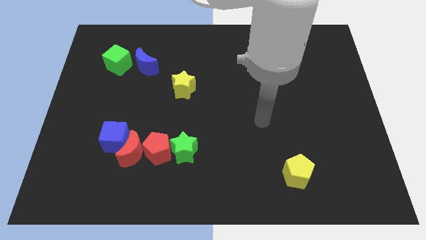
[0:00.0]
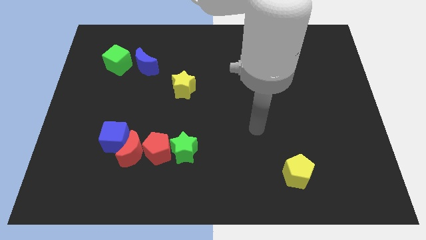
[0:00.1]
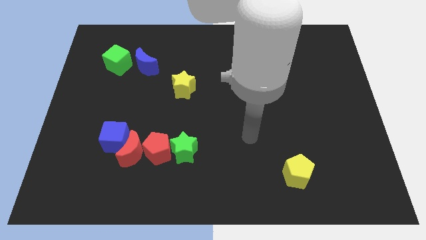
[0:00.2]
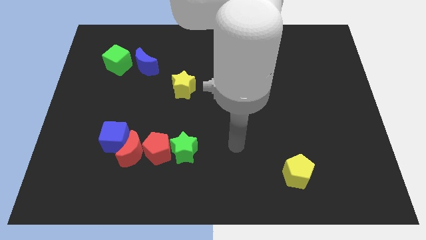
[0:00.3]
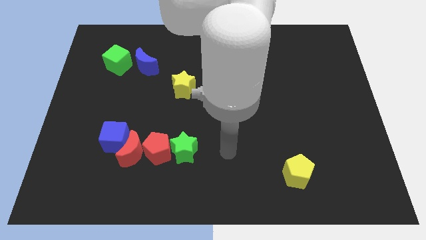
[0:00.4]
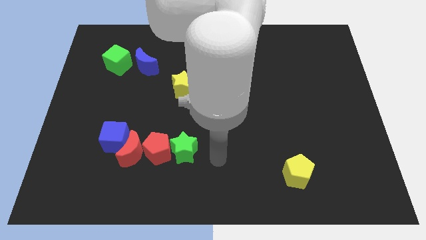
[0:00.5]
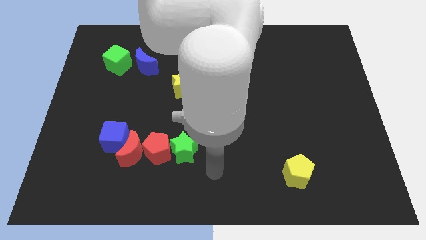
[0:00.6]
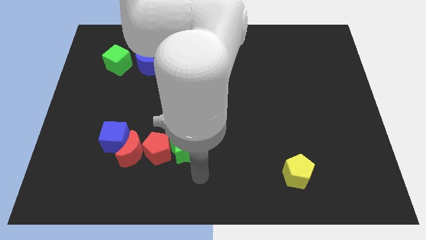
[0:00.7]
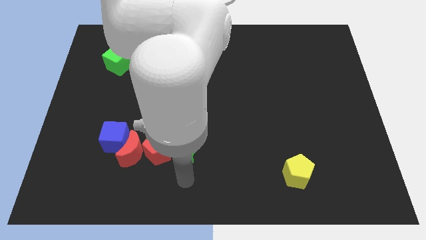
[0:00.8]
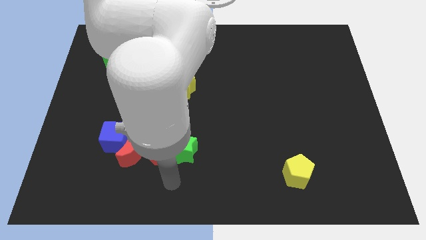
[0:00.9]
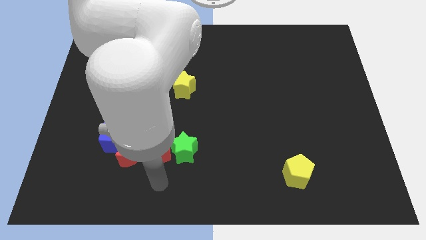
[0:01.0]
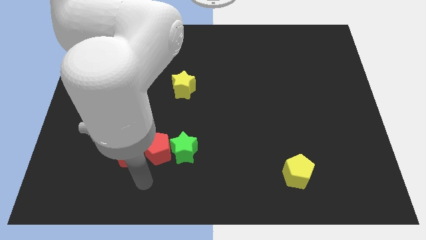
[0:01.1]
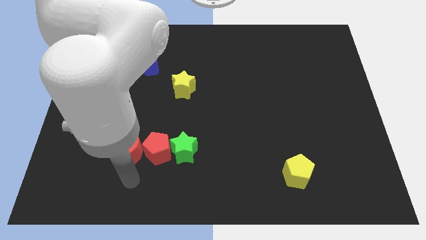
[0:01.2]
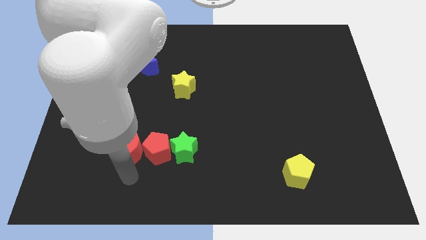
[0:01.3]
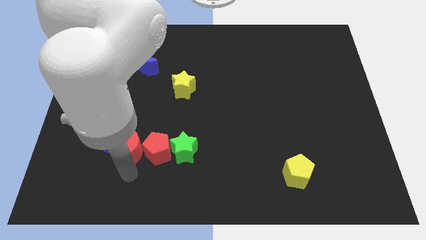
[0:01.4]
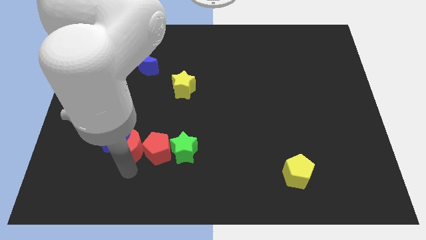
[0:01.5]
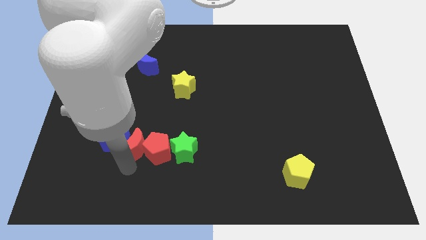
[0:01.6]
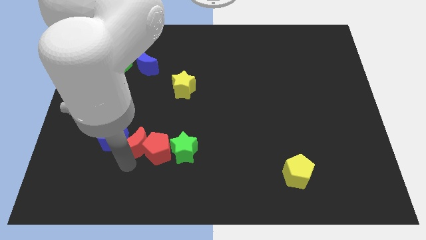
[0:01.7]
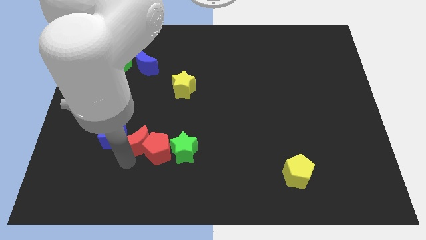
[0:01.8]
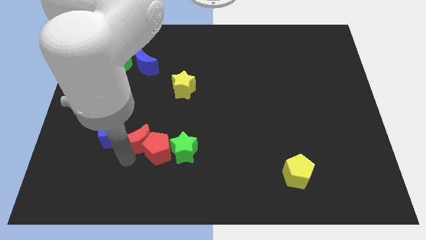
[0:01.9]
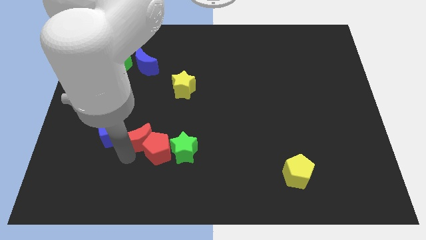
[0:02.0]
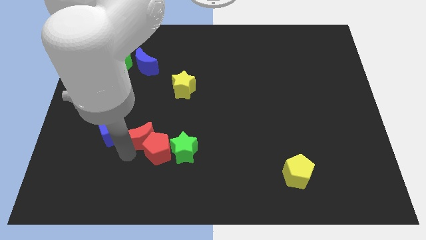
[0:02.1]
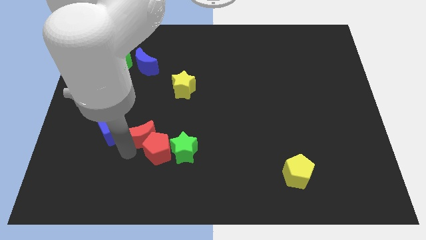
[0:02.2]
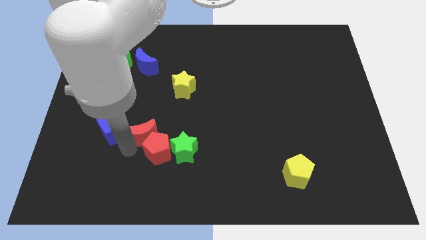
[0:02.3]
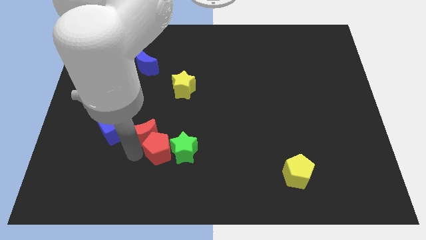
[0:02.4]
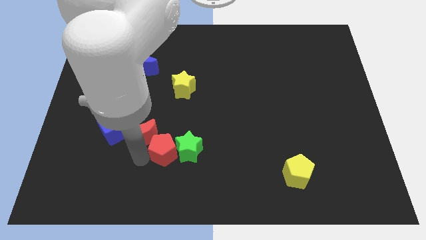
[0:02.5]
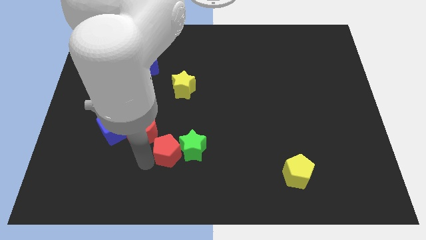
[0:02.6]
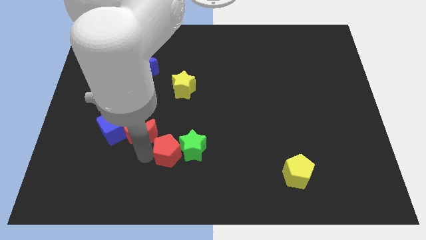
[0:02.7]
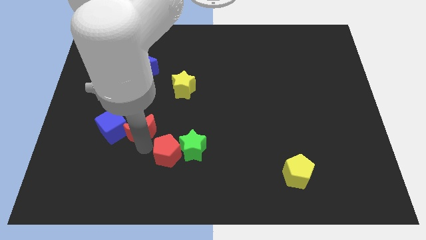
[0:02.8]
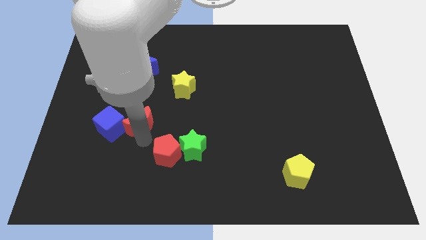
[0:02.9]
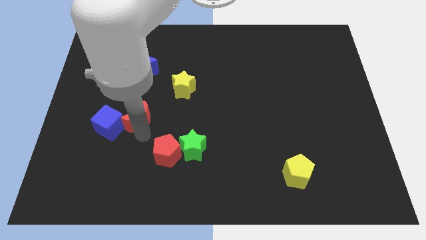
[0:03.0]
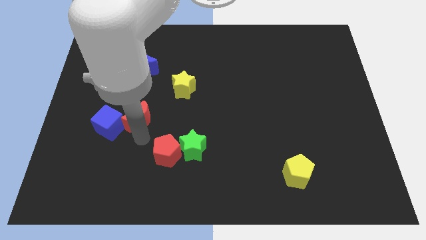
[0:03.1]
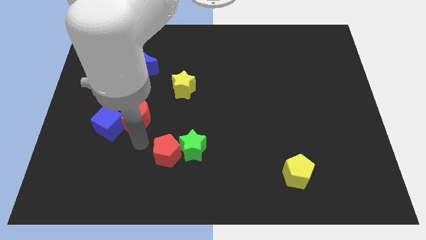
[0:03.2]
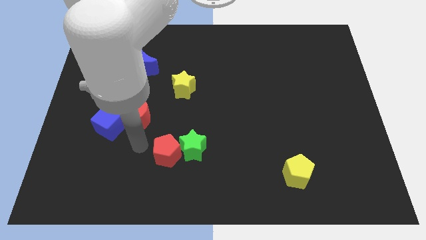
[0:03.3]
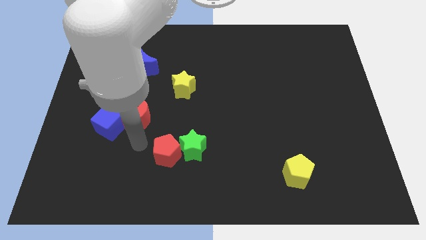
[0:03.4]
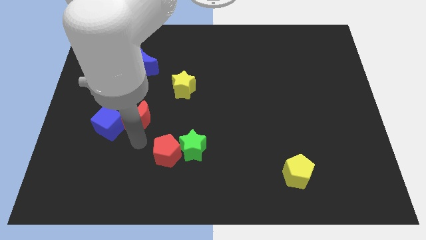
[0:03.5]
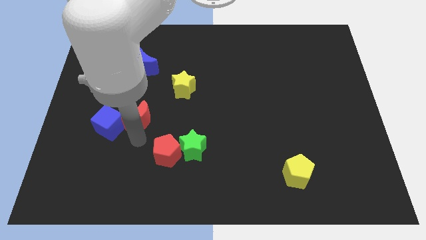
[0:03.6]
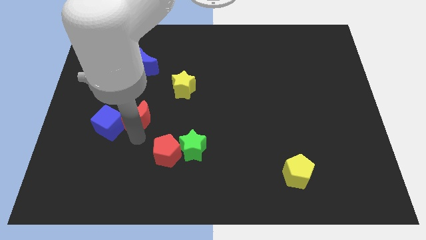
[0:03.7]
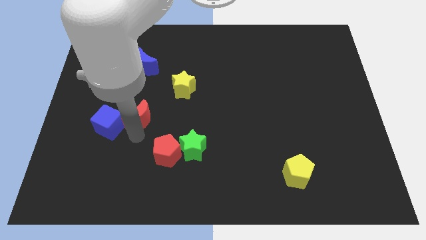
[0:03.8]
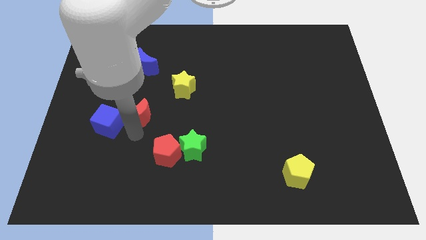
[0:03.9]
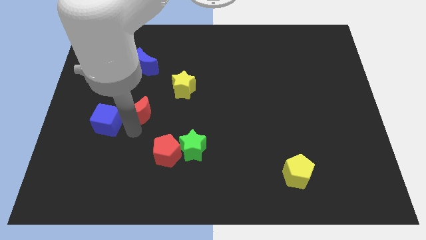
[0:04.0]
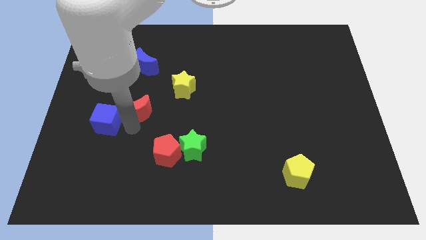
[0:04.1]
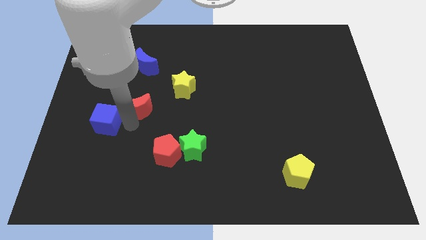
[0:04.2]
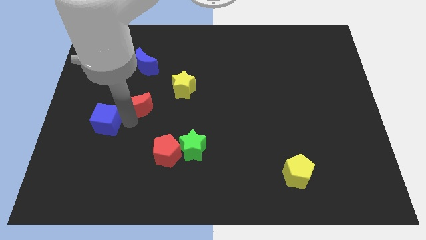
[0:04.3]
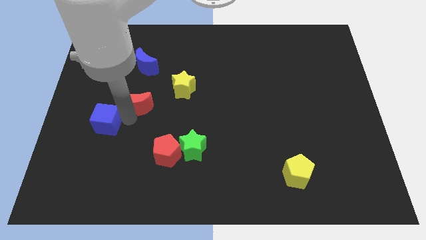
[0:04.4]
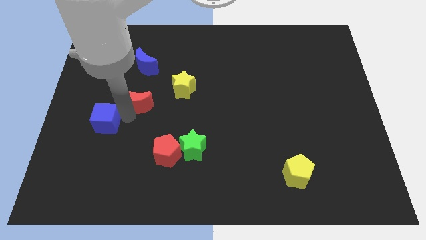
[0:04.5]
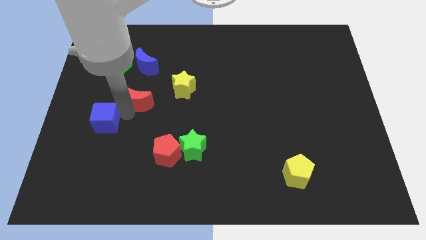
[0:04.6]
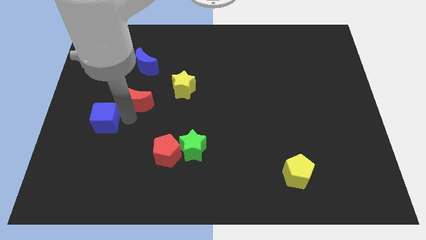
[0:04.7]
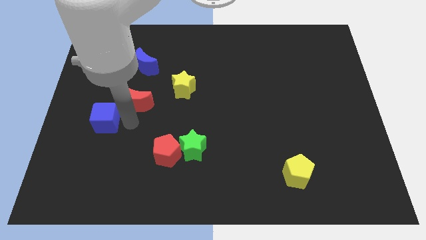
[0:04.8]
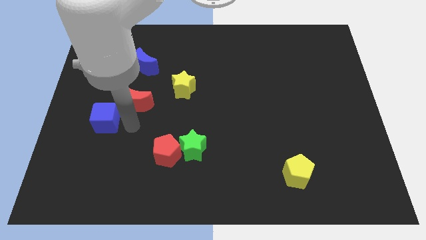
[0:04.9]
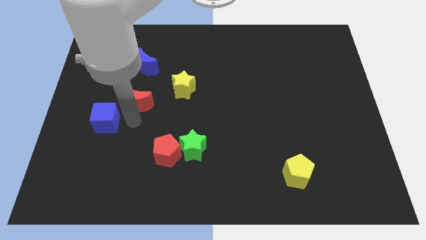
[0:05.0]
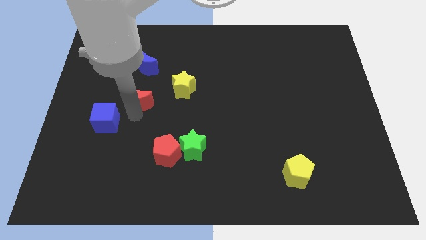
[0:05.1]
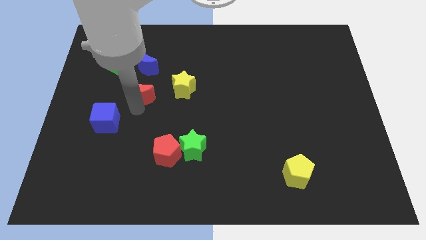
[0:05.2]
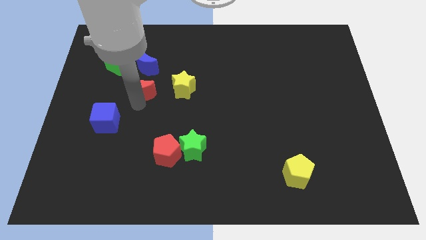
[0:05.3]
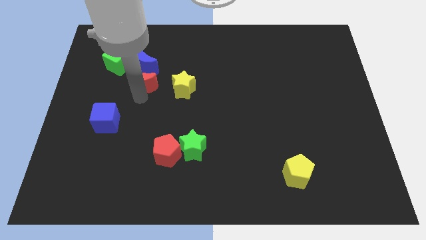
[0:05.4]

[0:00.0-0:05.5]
move the red moon close to the blue moon

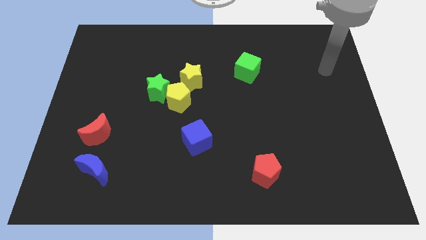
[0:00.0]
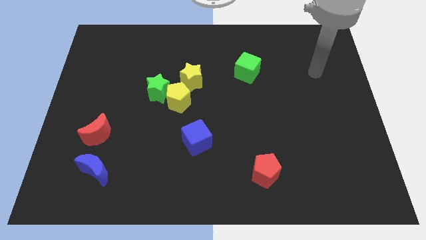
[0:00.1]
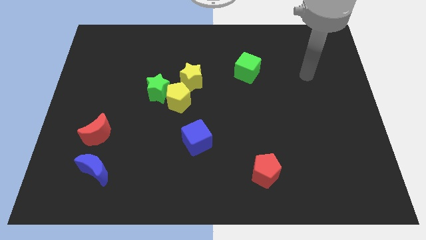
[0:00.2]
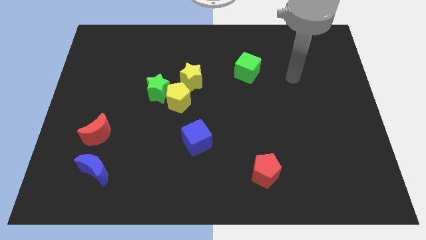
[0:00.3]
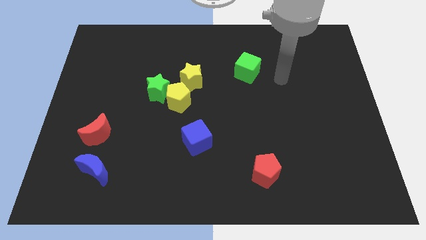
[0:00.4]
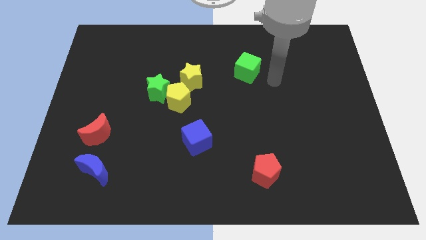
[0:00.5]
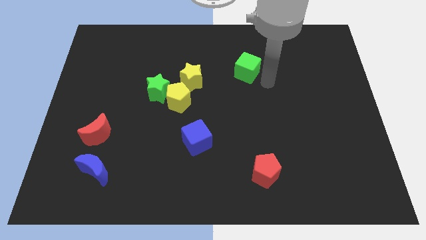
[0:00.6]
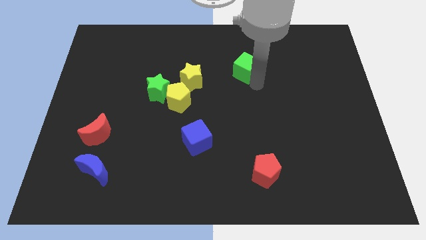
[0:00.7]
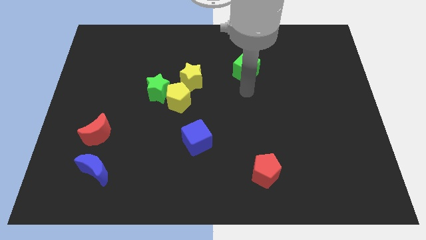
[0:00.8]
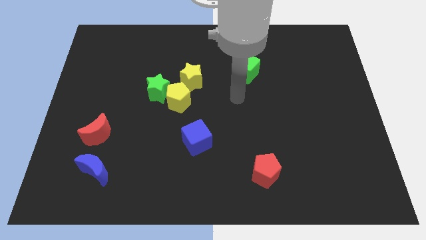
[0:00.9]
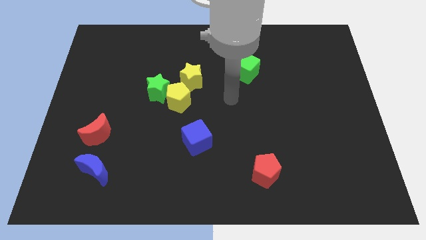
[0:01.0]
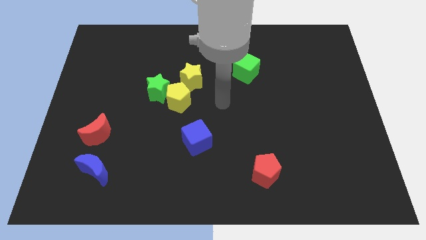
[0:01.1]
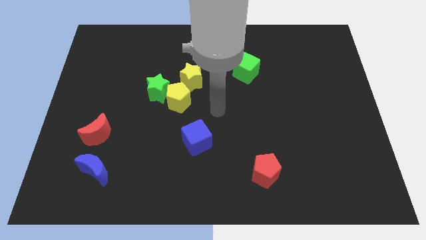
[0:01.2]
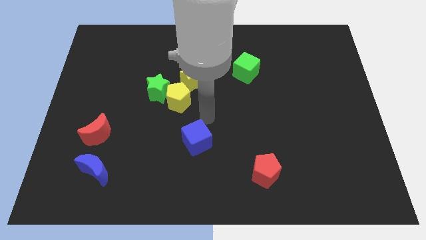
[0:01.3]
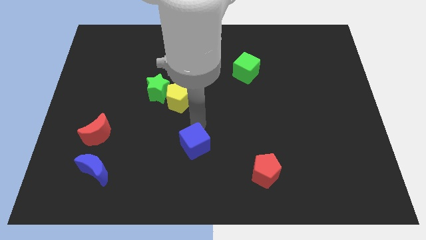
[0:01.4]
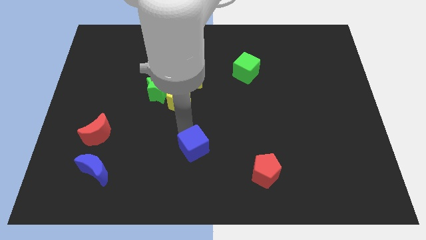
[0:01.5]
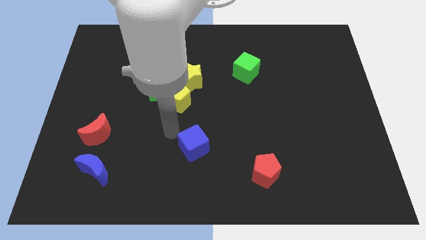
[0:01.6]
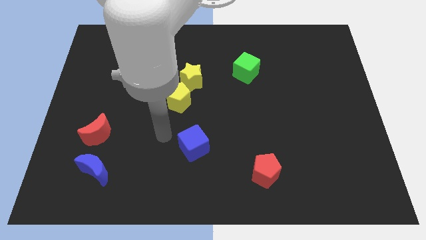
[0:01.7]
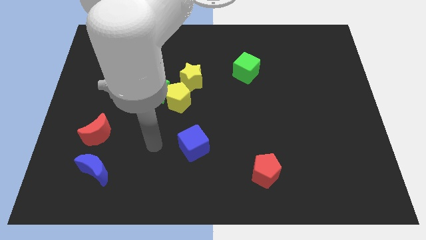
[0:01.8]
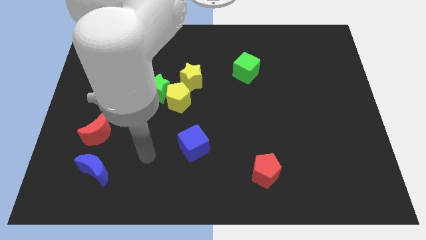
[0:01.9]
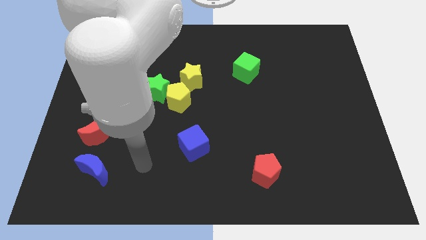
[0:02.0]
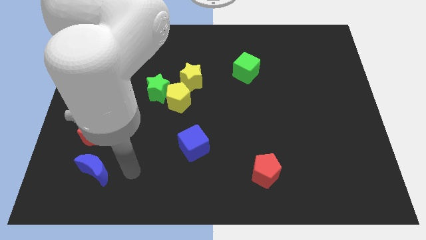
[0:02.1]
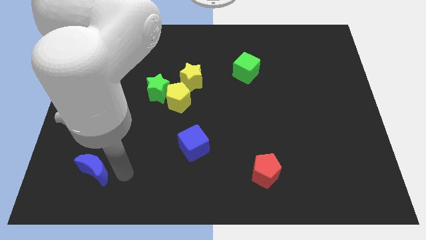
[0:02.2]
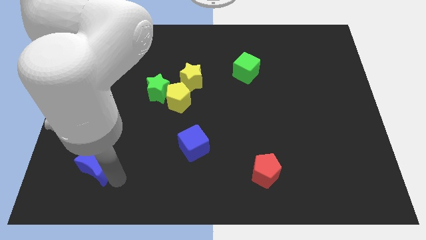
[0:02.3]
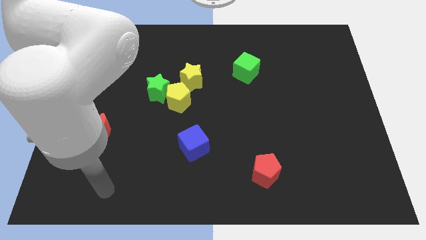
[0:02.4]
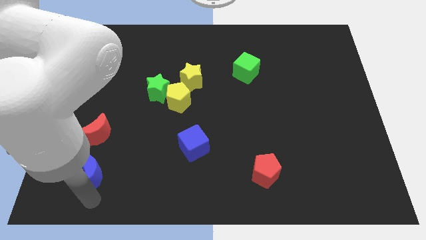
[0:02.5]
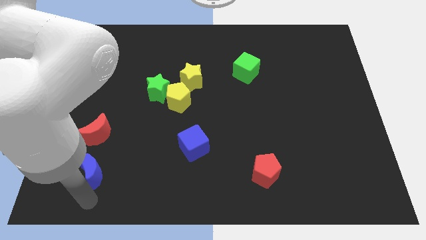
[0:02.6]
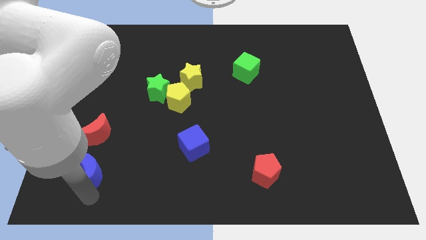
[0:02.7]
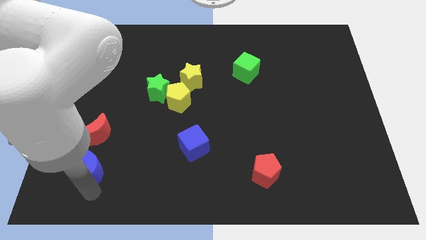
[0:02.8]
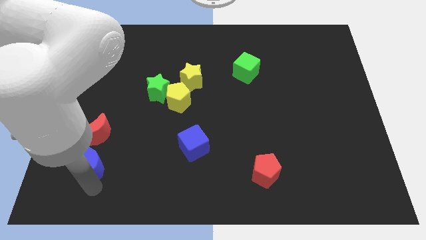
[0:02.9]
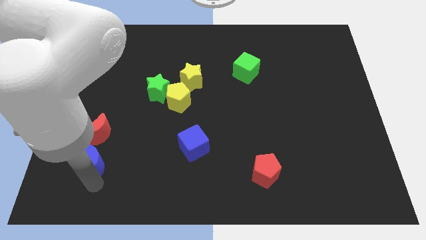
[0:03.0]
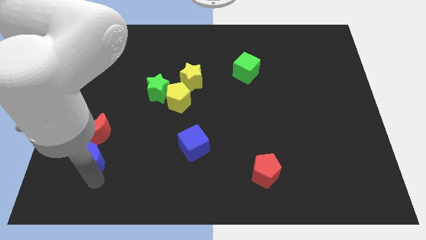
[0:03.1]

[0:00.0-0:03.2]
put the blue moon close to the red moon
